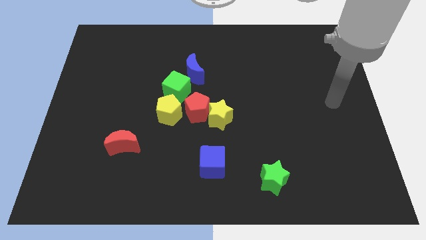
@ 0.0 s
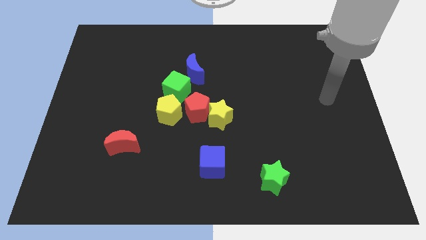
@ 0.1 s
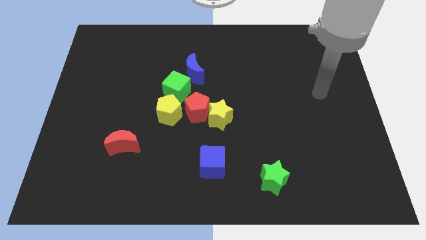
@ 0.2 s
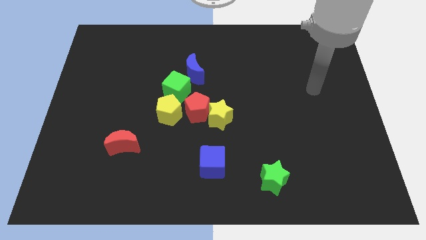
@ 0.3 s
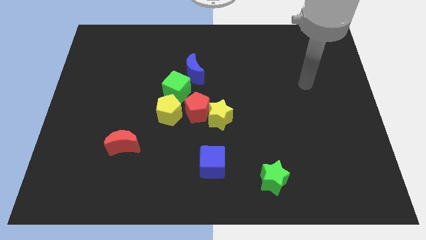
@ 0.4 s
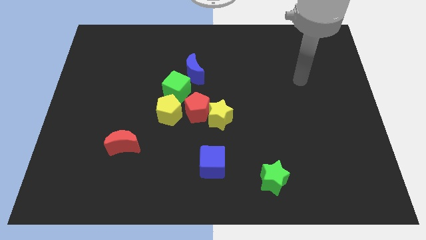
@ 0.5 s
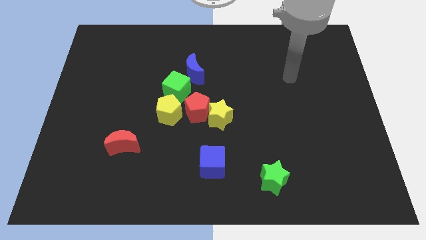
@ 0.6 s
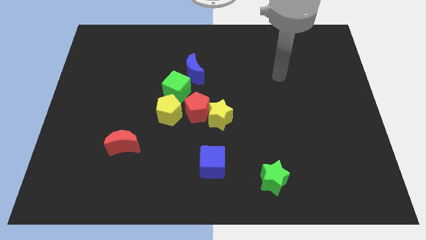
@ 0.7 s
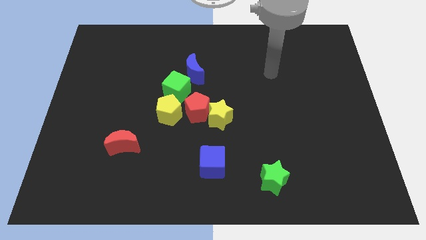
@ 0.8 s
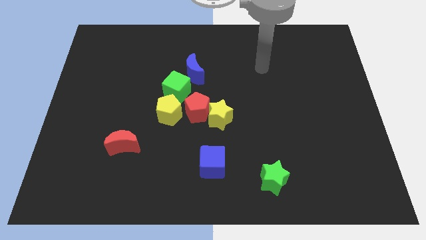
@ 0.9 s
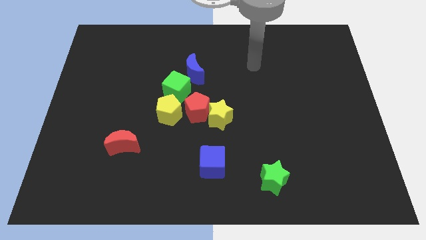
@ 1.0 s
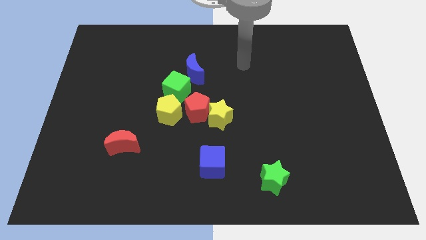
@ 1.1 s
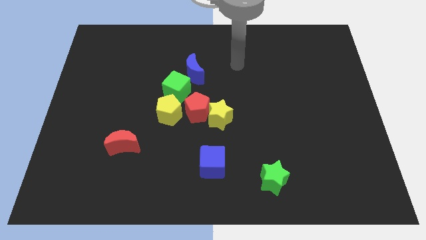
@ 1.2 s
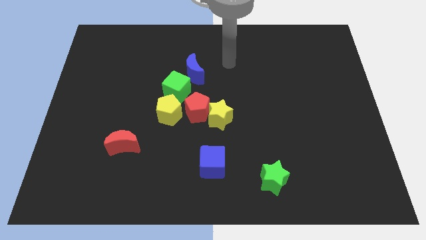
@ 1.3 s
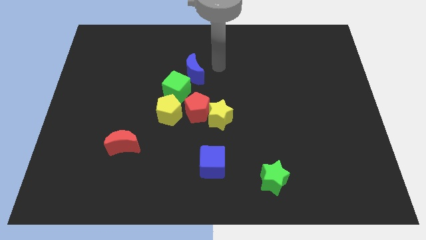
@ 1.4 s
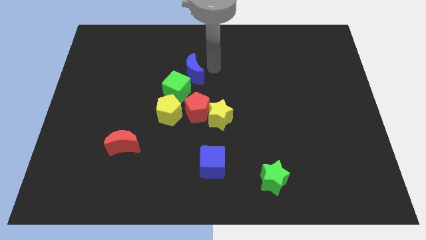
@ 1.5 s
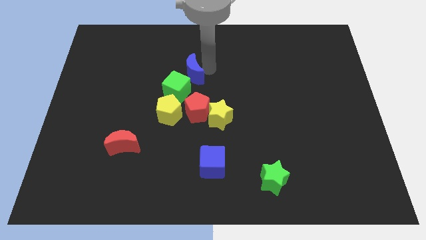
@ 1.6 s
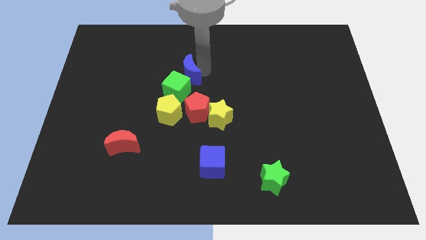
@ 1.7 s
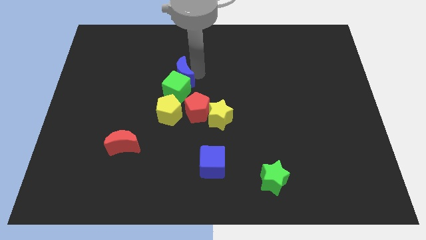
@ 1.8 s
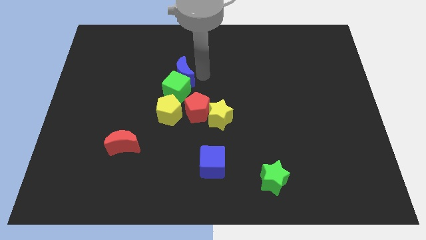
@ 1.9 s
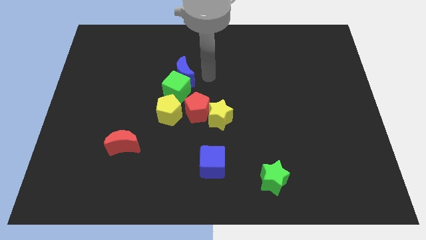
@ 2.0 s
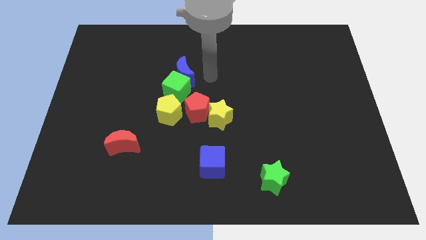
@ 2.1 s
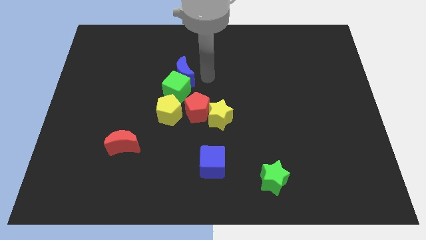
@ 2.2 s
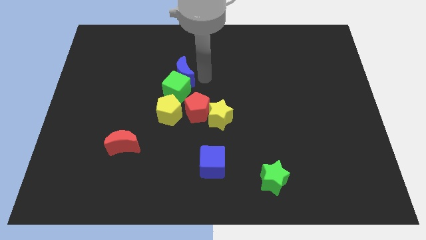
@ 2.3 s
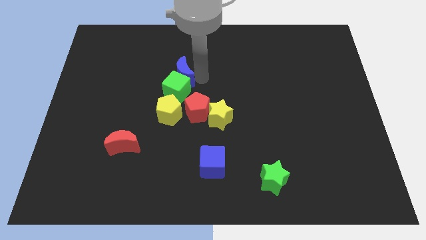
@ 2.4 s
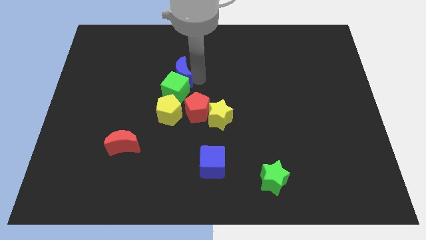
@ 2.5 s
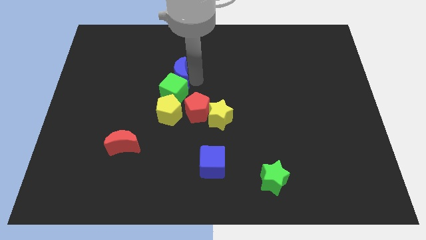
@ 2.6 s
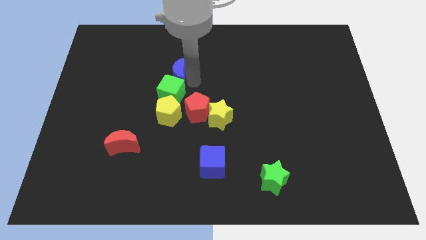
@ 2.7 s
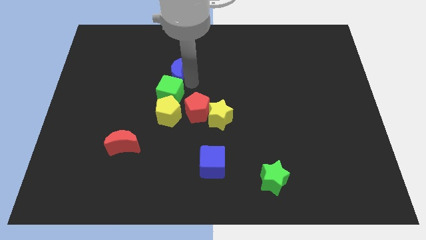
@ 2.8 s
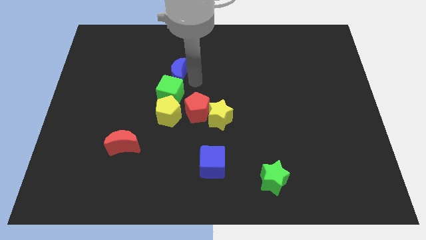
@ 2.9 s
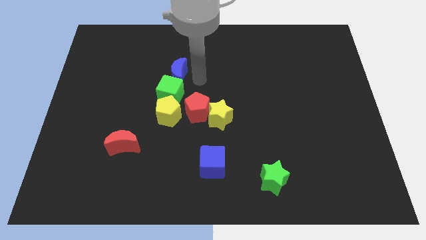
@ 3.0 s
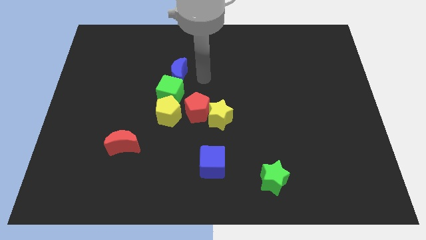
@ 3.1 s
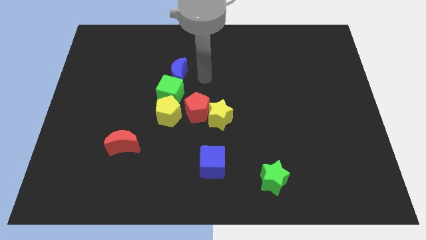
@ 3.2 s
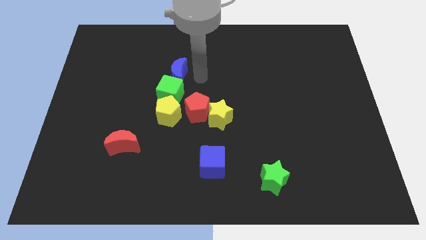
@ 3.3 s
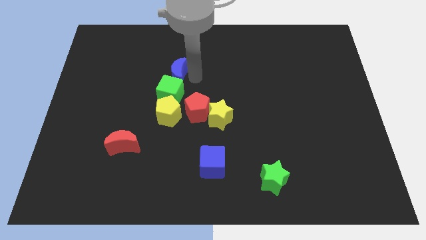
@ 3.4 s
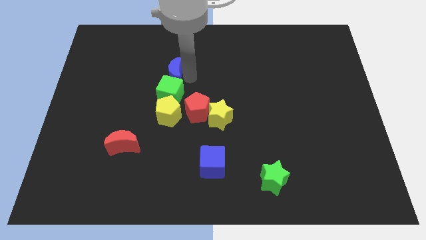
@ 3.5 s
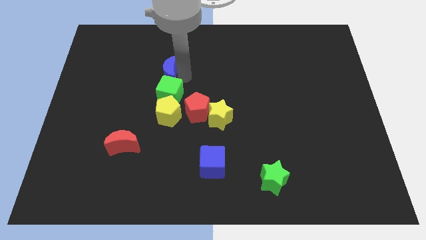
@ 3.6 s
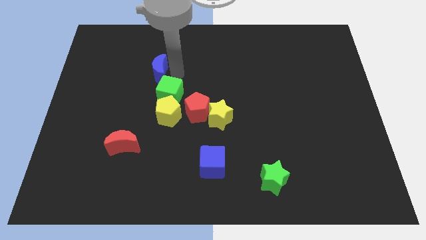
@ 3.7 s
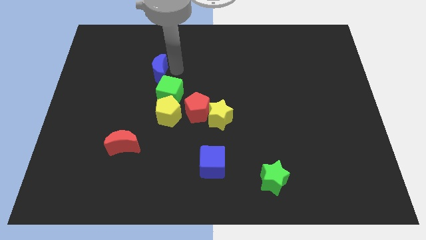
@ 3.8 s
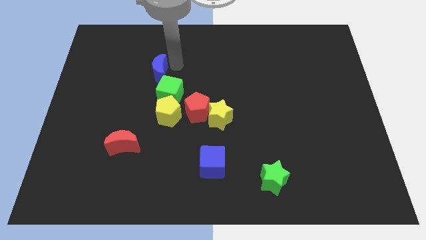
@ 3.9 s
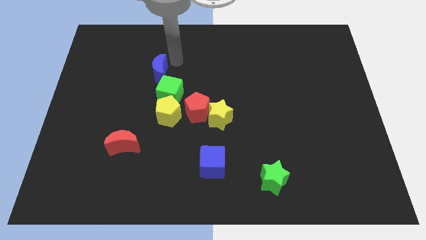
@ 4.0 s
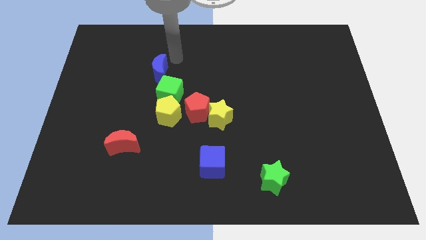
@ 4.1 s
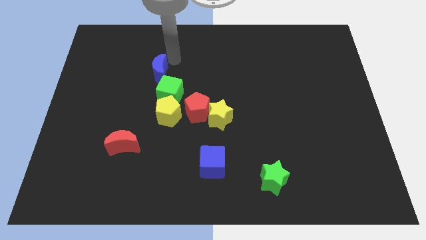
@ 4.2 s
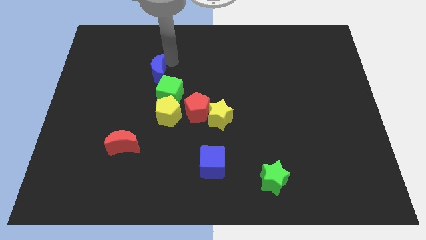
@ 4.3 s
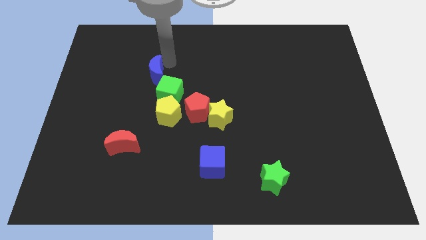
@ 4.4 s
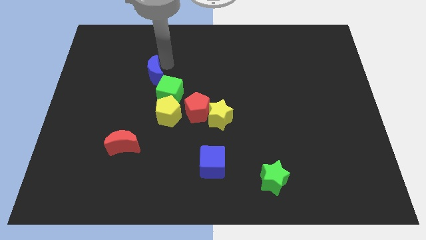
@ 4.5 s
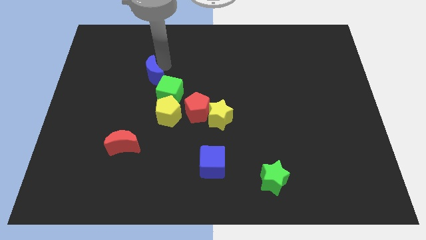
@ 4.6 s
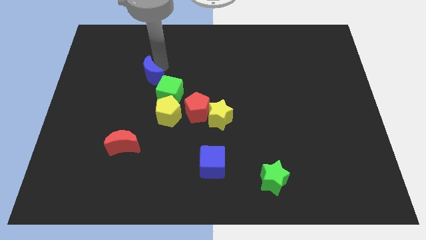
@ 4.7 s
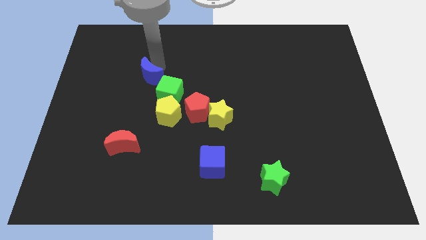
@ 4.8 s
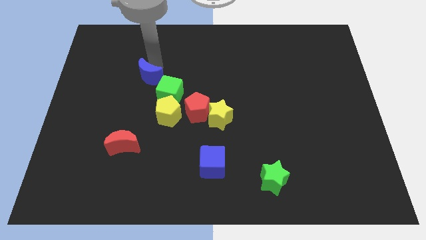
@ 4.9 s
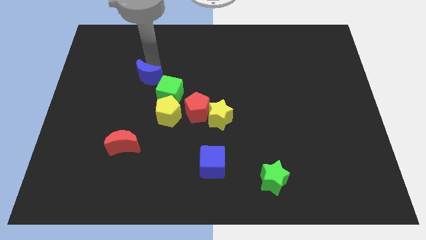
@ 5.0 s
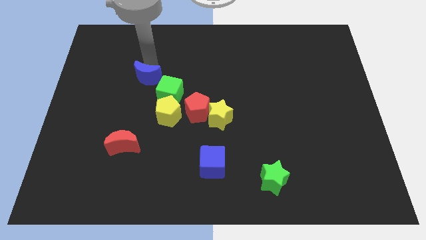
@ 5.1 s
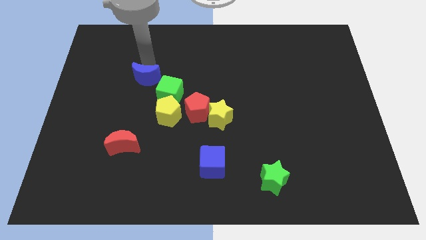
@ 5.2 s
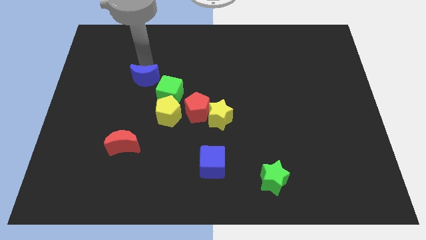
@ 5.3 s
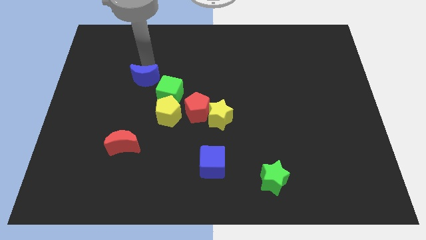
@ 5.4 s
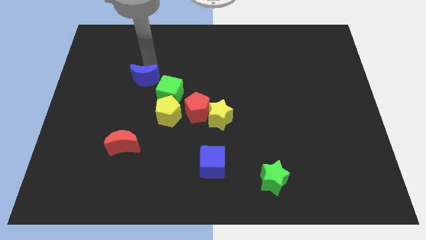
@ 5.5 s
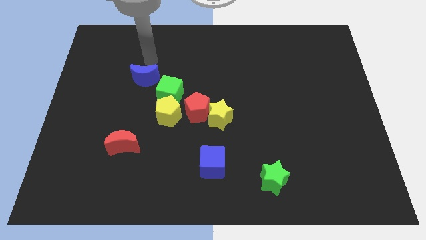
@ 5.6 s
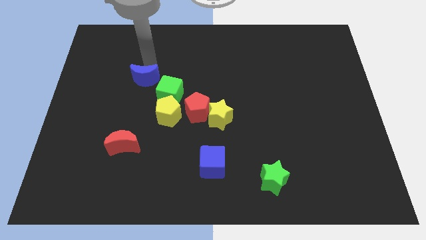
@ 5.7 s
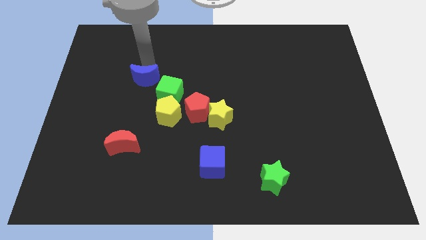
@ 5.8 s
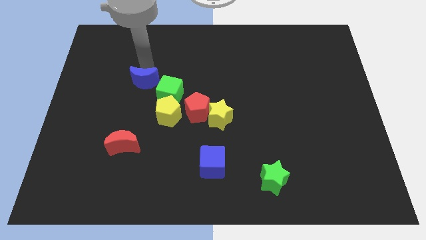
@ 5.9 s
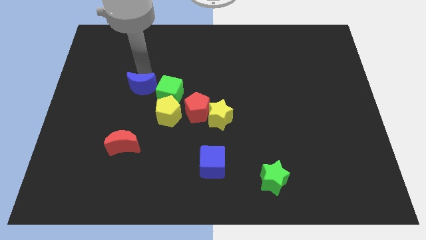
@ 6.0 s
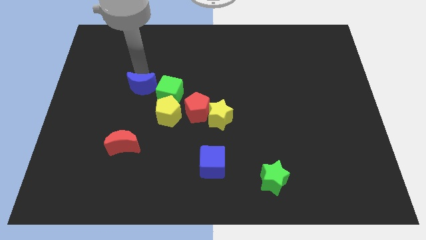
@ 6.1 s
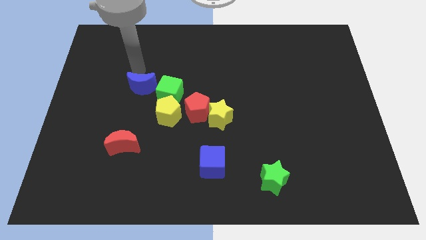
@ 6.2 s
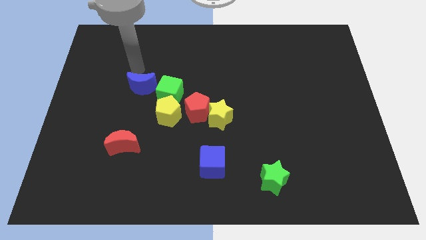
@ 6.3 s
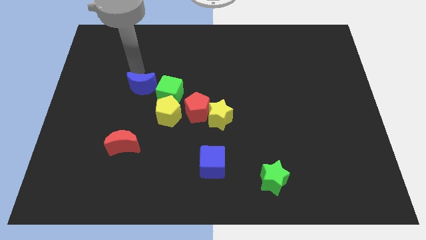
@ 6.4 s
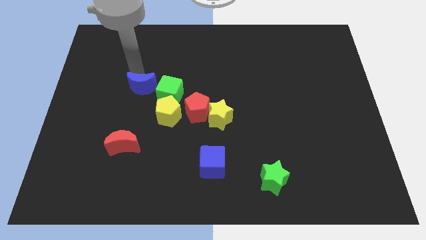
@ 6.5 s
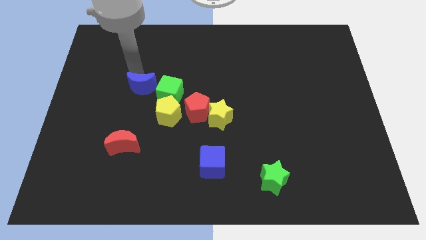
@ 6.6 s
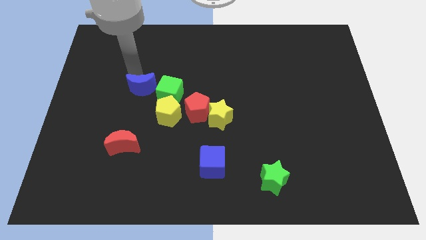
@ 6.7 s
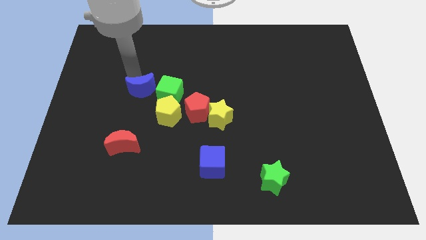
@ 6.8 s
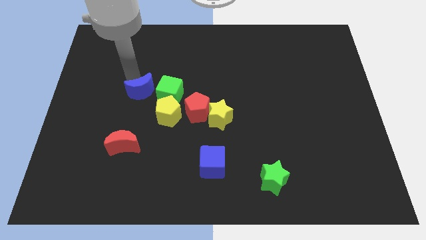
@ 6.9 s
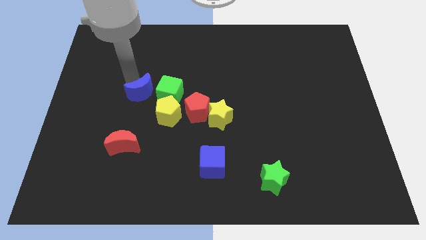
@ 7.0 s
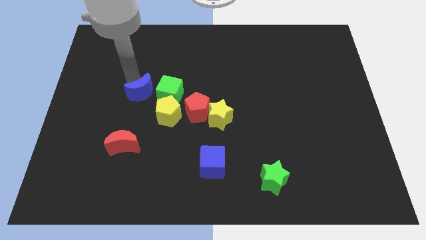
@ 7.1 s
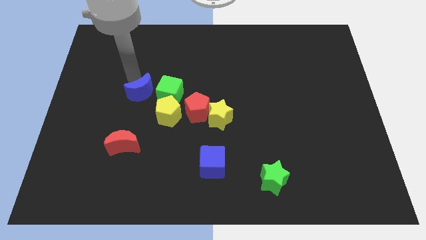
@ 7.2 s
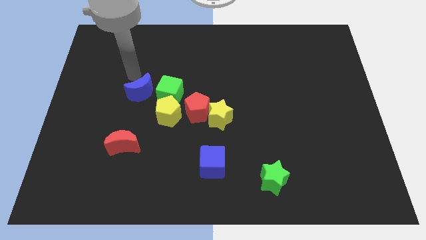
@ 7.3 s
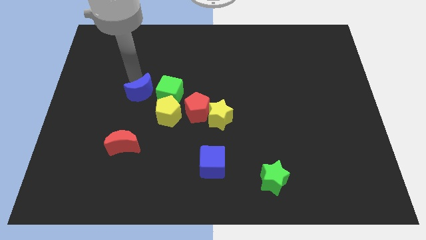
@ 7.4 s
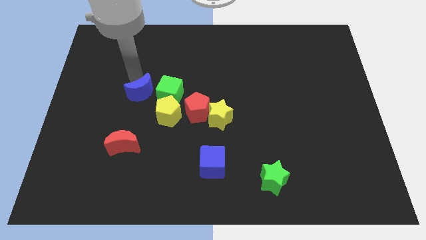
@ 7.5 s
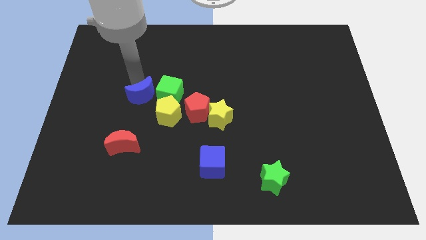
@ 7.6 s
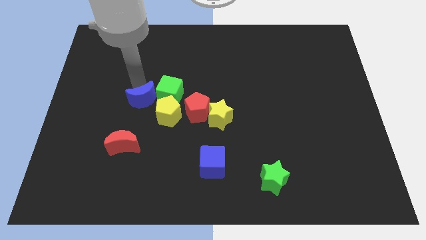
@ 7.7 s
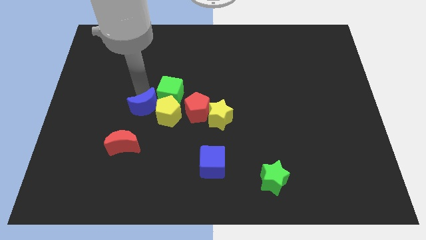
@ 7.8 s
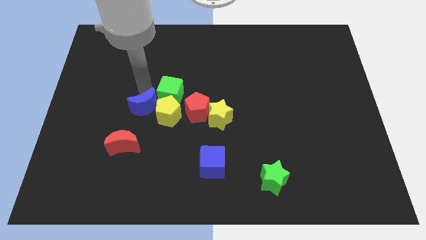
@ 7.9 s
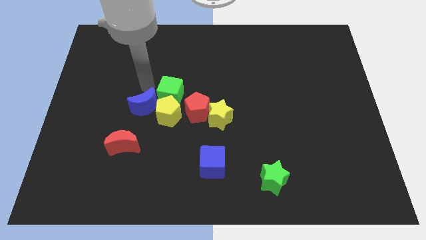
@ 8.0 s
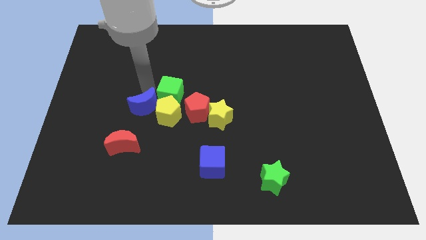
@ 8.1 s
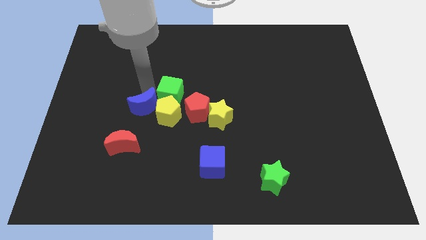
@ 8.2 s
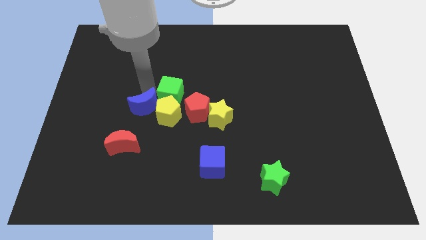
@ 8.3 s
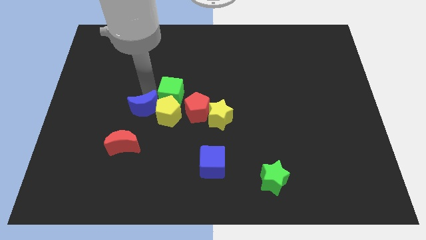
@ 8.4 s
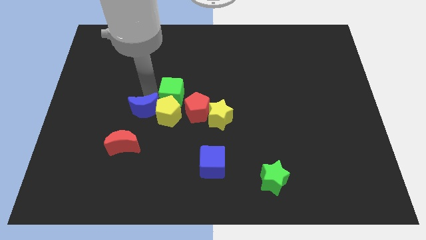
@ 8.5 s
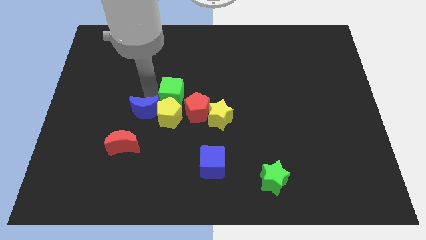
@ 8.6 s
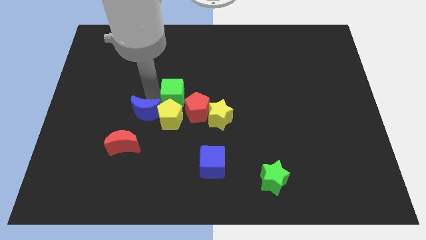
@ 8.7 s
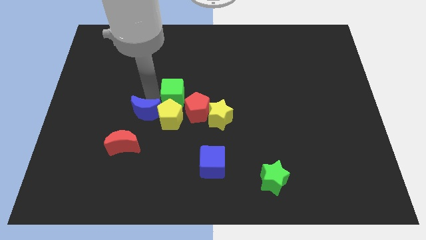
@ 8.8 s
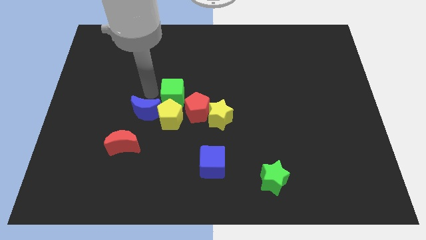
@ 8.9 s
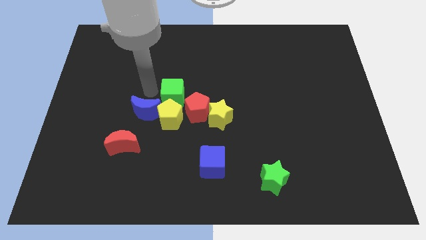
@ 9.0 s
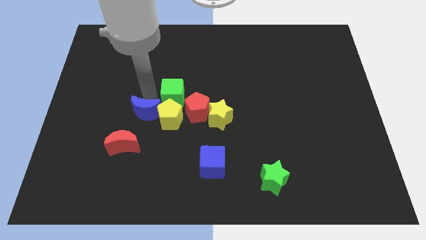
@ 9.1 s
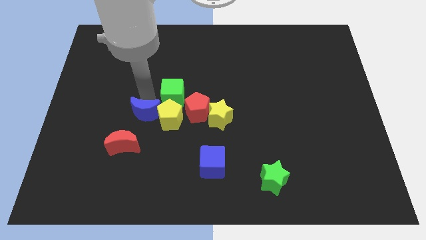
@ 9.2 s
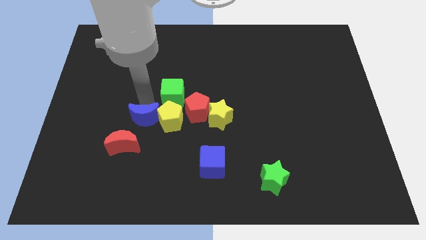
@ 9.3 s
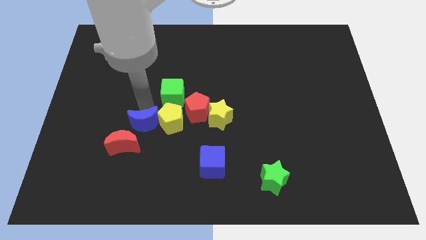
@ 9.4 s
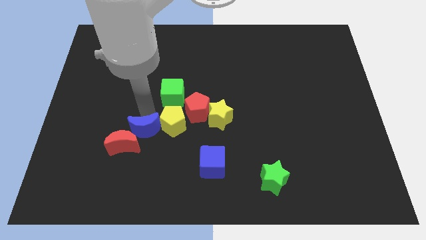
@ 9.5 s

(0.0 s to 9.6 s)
move the blue moon towards the red moon
